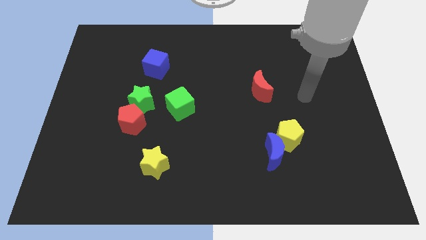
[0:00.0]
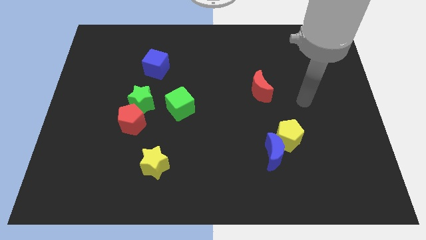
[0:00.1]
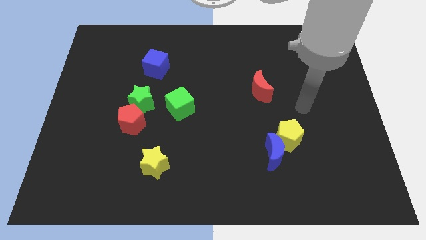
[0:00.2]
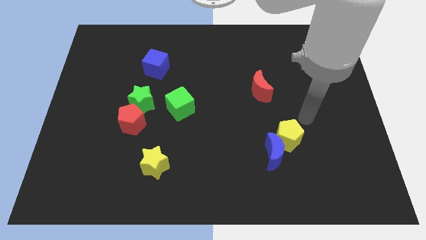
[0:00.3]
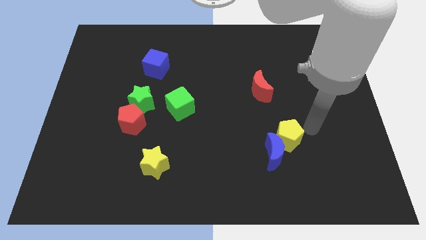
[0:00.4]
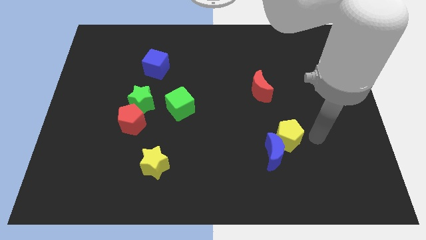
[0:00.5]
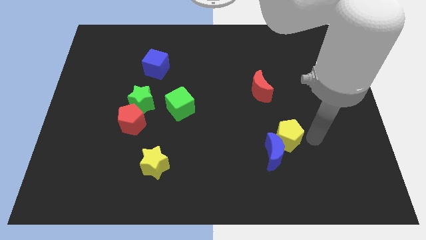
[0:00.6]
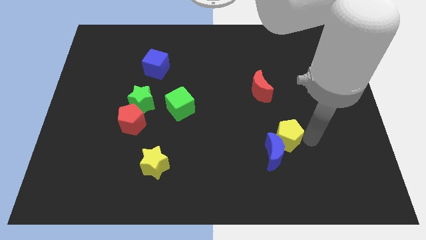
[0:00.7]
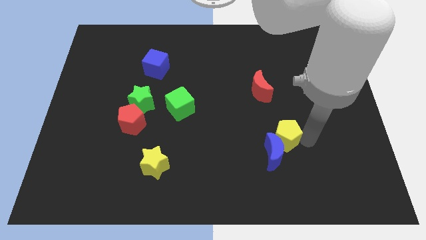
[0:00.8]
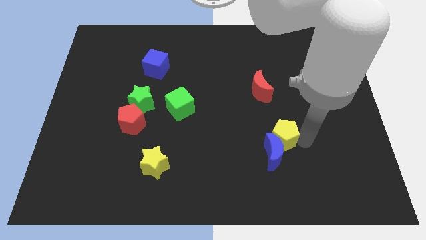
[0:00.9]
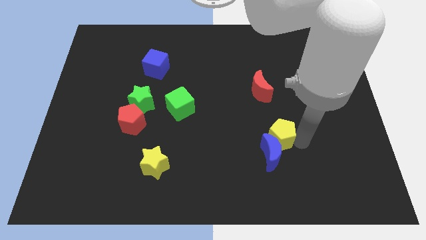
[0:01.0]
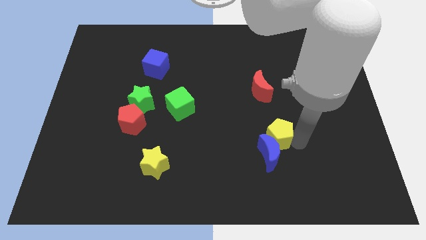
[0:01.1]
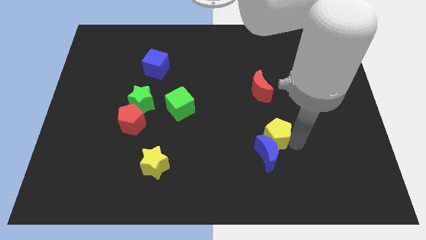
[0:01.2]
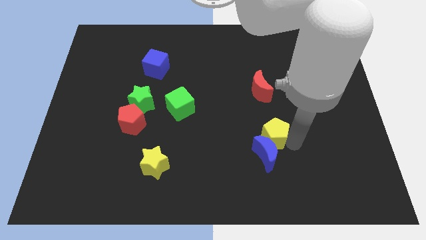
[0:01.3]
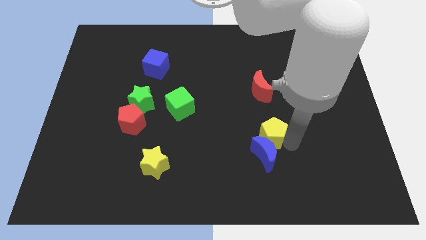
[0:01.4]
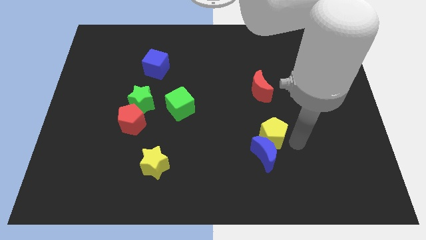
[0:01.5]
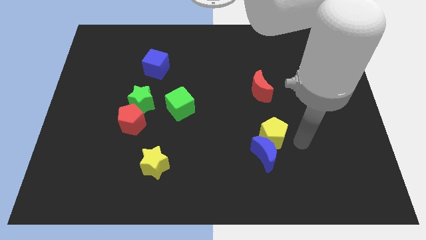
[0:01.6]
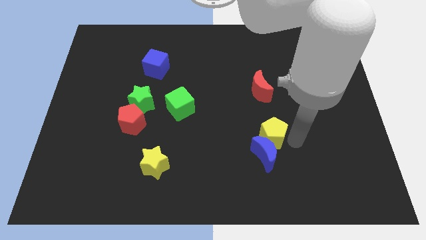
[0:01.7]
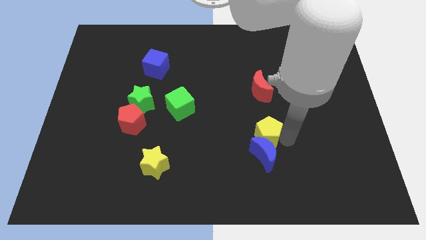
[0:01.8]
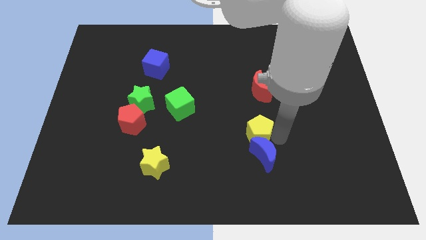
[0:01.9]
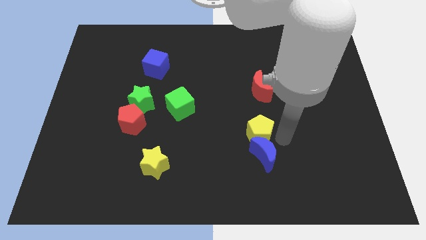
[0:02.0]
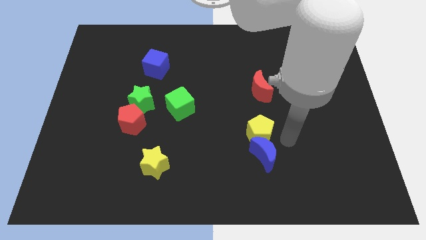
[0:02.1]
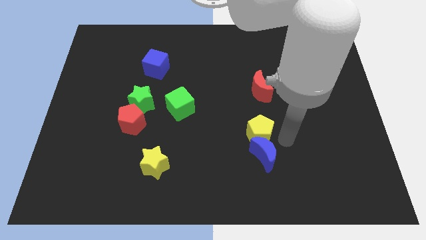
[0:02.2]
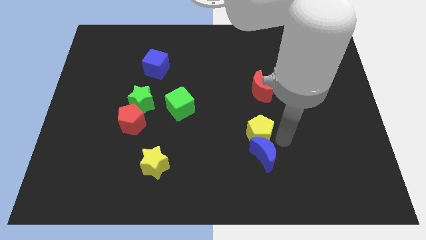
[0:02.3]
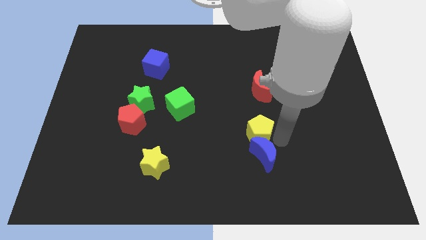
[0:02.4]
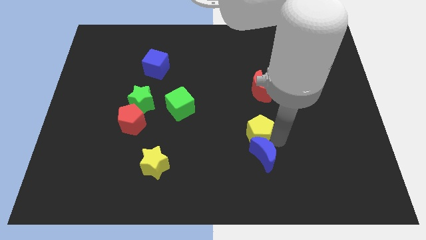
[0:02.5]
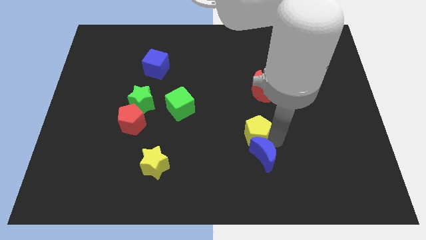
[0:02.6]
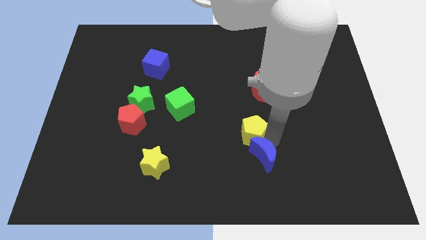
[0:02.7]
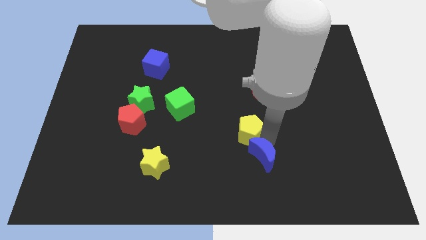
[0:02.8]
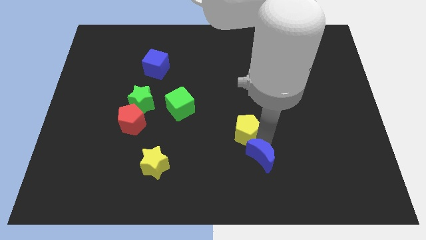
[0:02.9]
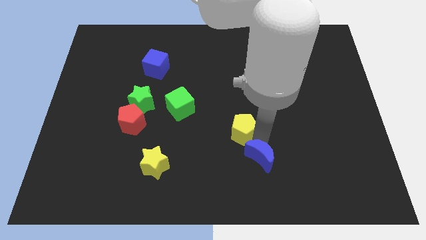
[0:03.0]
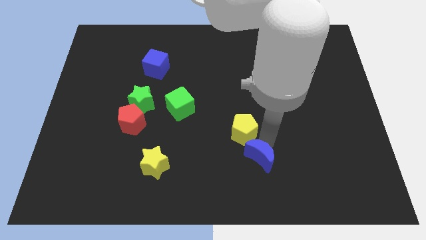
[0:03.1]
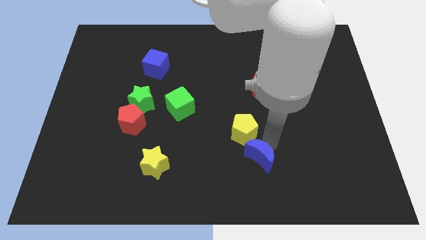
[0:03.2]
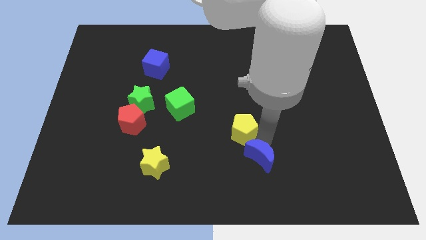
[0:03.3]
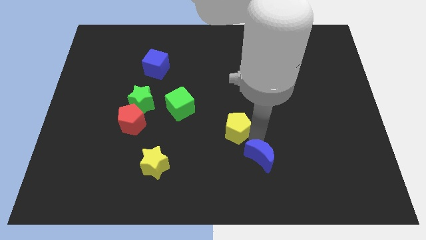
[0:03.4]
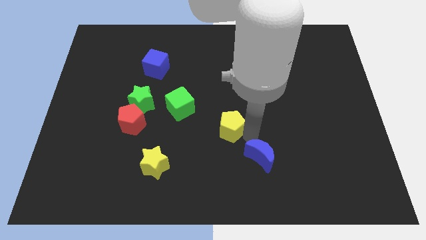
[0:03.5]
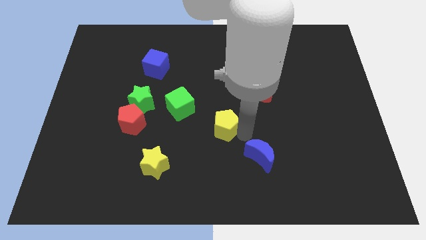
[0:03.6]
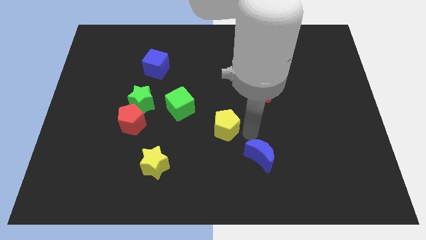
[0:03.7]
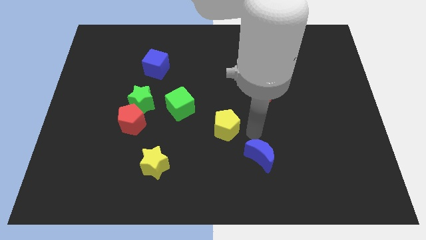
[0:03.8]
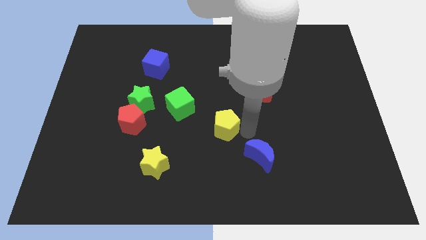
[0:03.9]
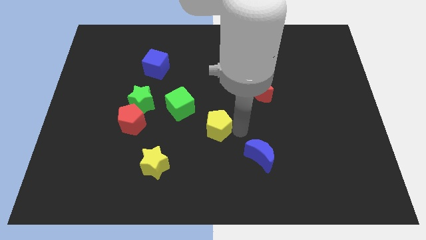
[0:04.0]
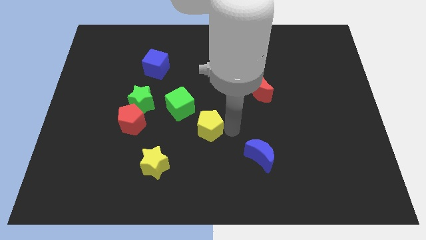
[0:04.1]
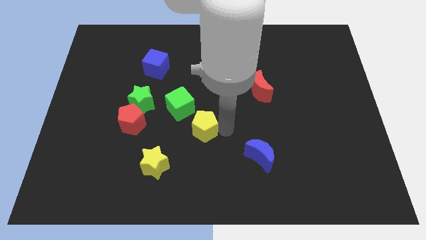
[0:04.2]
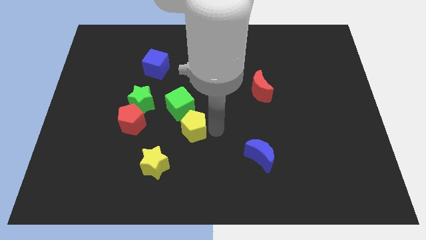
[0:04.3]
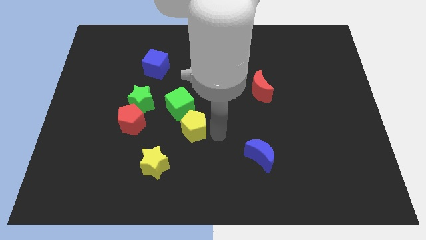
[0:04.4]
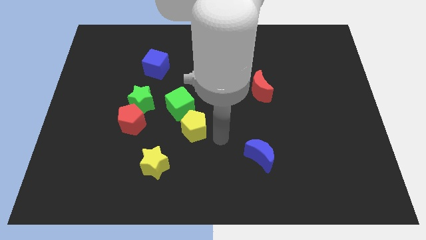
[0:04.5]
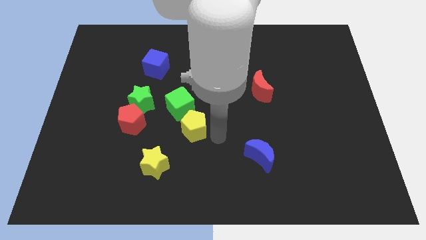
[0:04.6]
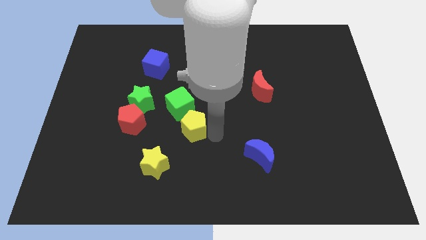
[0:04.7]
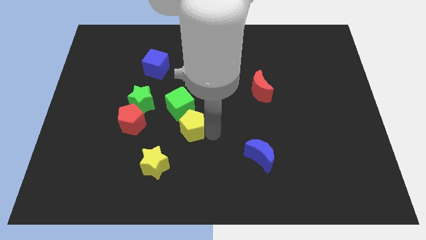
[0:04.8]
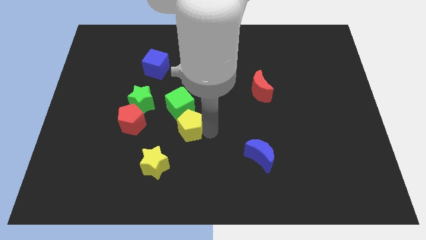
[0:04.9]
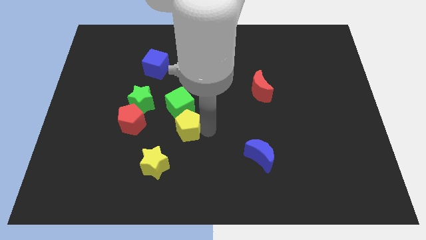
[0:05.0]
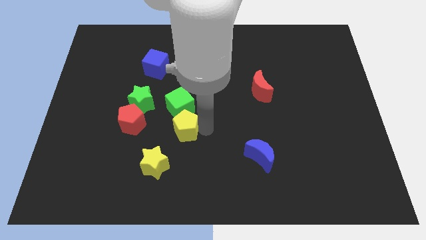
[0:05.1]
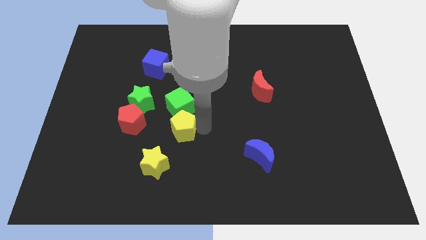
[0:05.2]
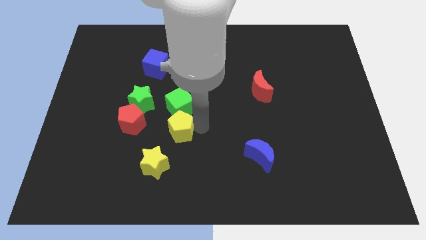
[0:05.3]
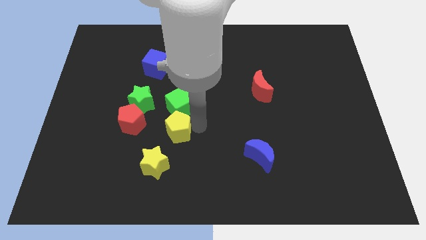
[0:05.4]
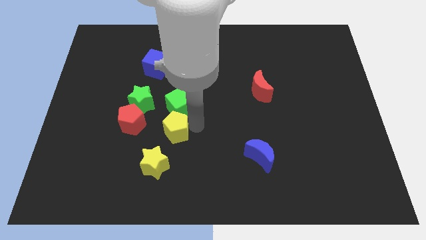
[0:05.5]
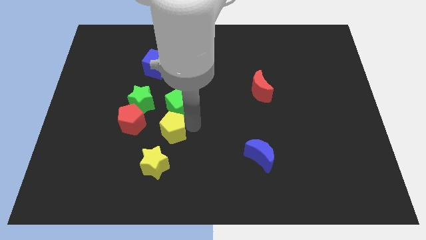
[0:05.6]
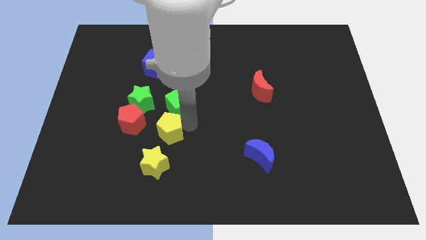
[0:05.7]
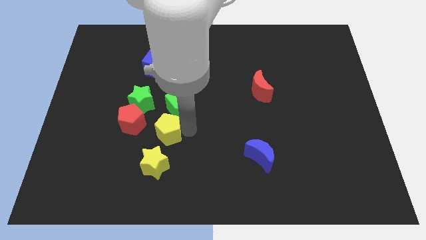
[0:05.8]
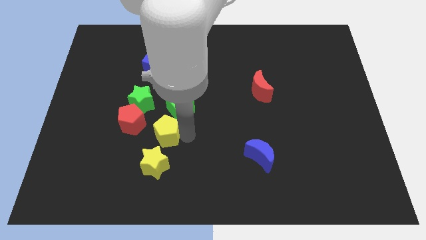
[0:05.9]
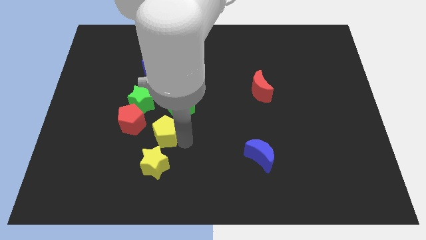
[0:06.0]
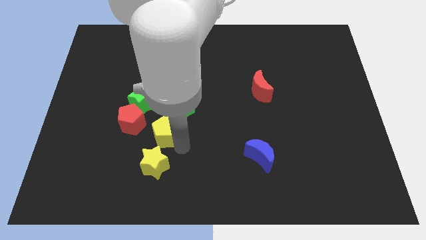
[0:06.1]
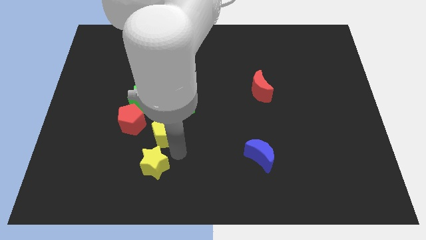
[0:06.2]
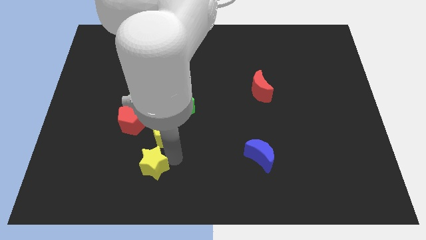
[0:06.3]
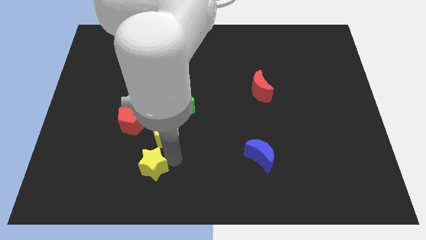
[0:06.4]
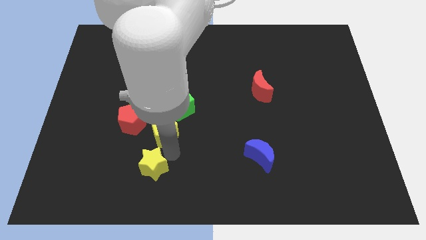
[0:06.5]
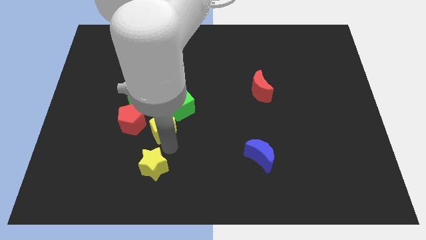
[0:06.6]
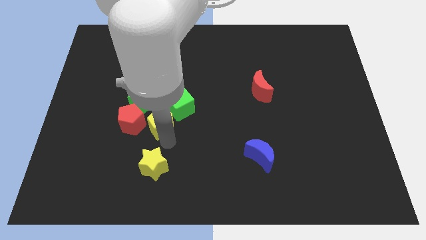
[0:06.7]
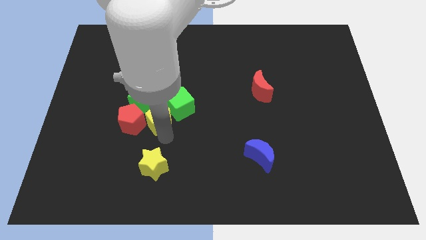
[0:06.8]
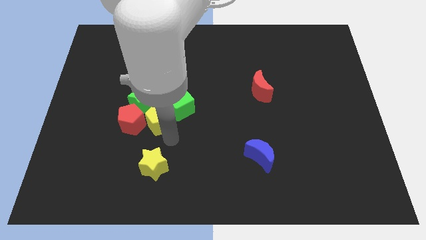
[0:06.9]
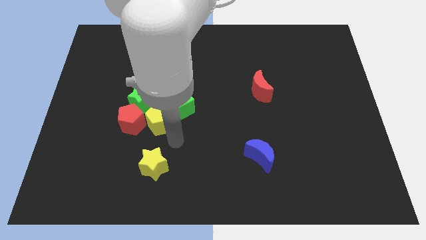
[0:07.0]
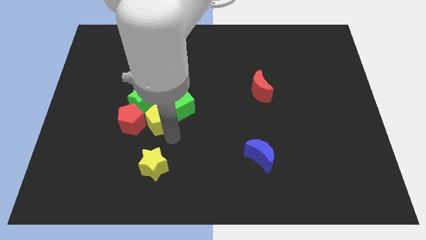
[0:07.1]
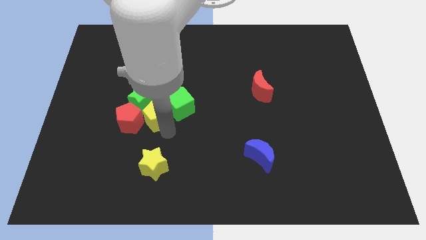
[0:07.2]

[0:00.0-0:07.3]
move the yellow pentagon next to the green star

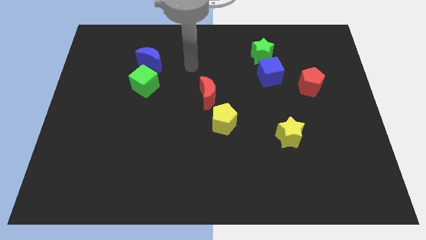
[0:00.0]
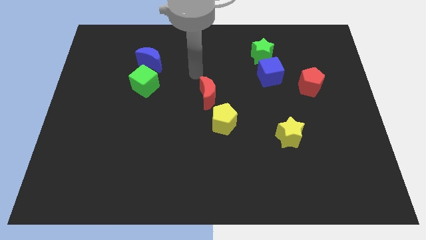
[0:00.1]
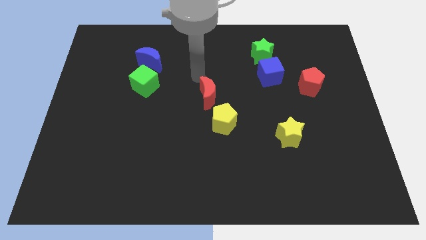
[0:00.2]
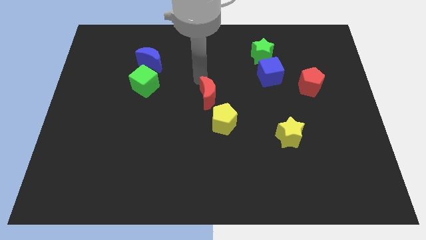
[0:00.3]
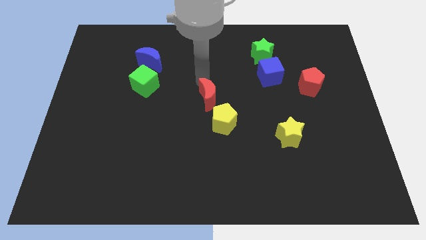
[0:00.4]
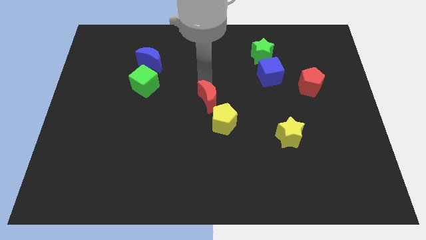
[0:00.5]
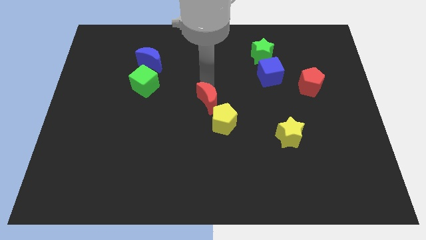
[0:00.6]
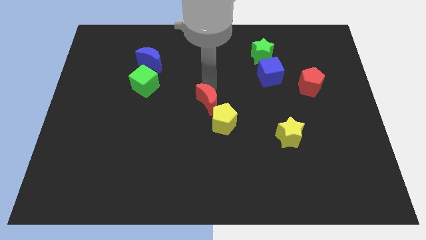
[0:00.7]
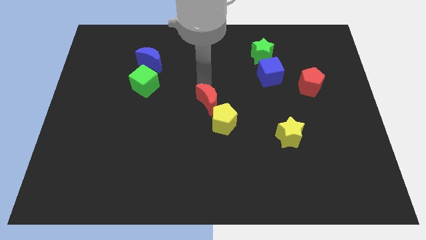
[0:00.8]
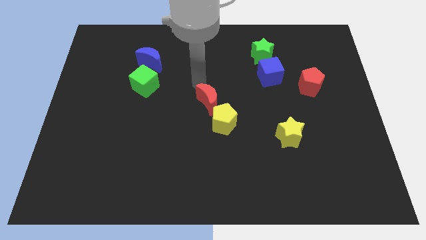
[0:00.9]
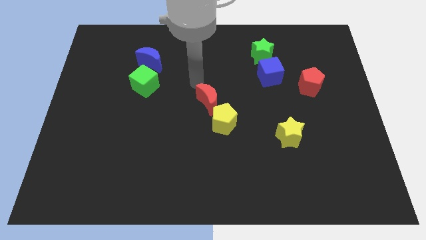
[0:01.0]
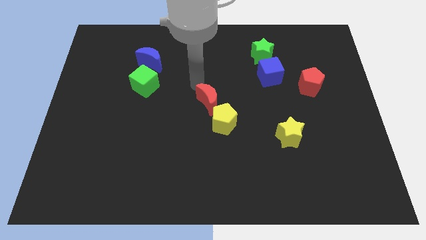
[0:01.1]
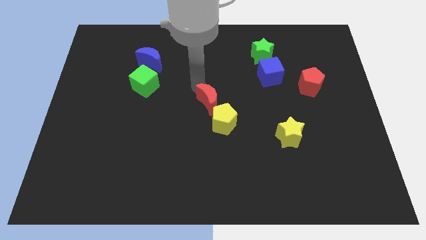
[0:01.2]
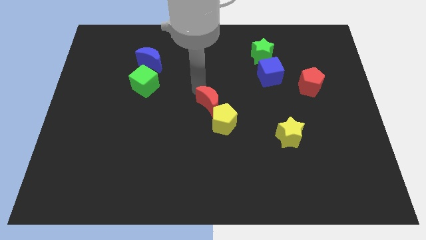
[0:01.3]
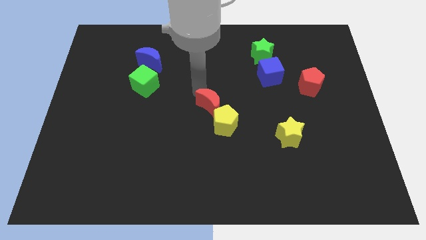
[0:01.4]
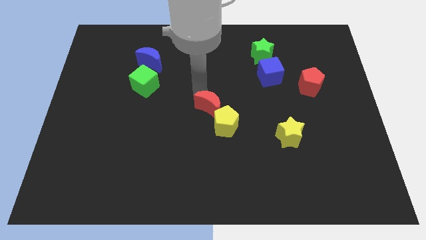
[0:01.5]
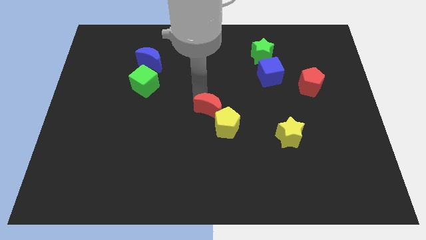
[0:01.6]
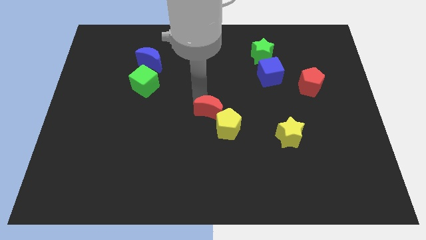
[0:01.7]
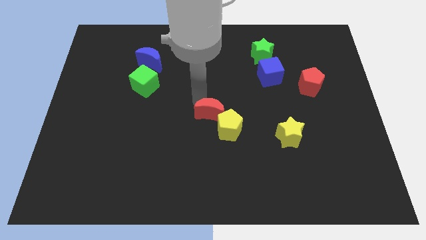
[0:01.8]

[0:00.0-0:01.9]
move the red moon to the yellow pentagon
